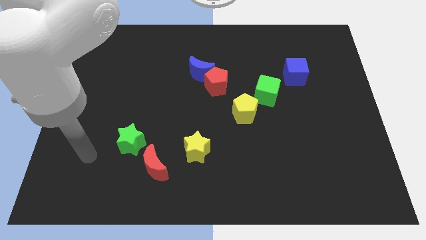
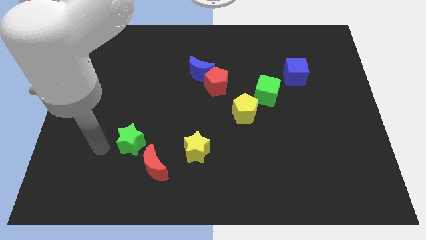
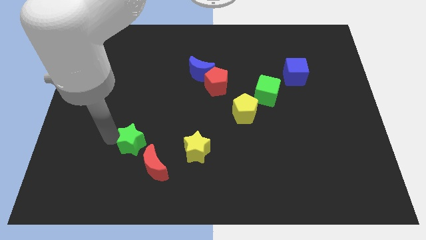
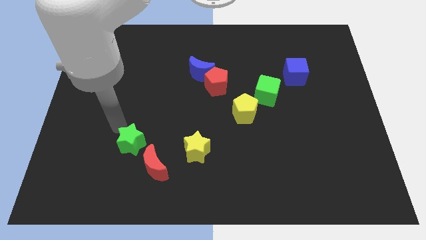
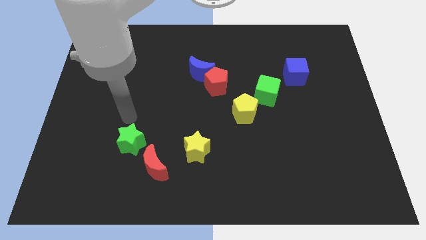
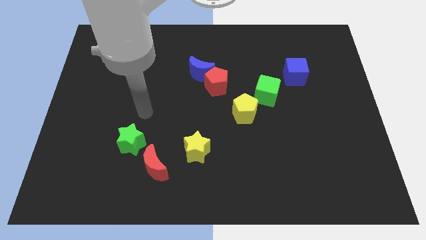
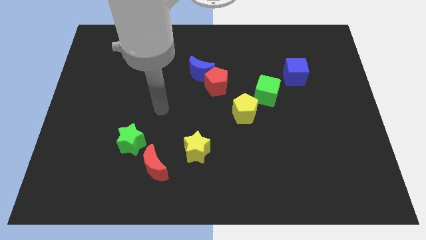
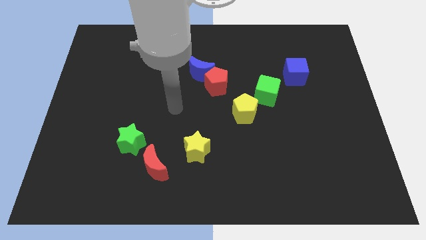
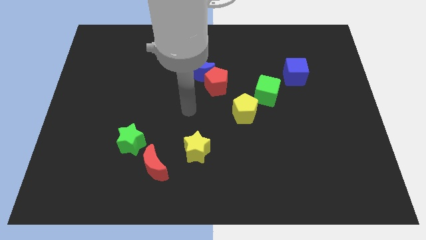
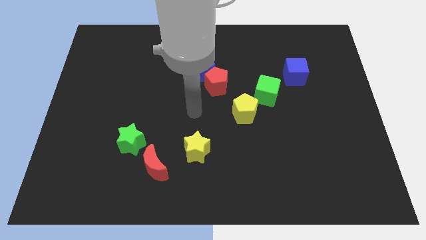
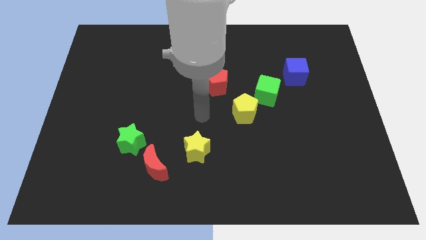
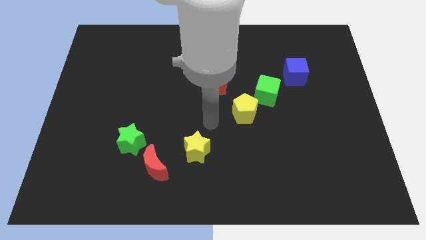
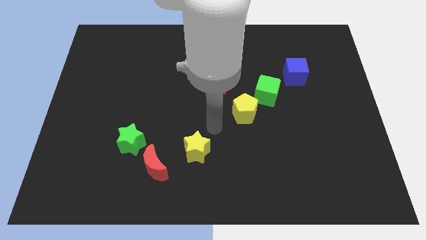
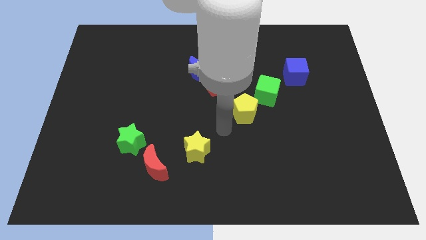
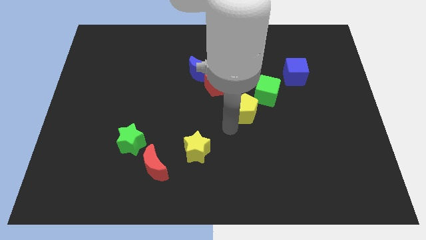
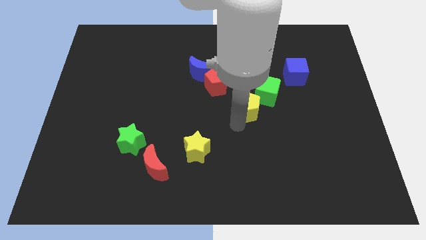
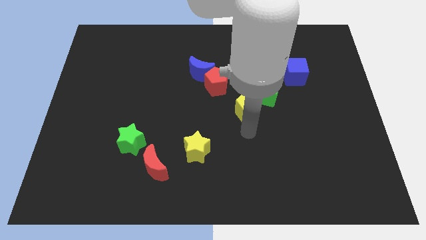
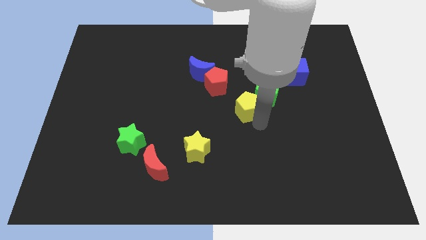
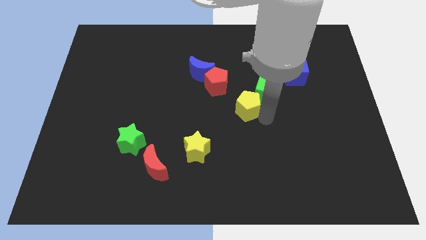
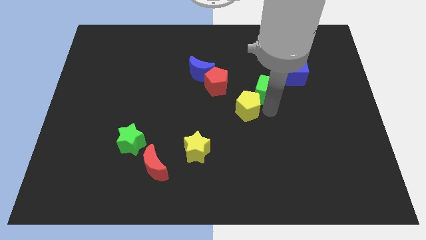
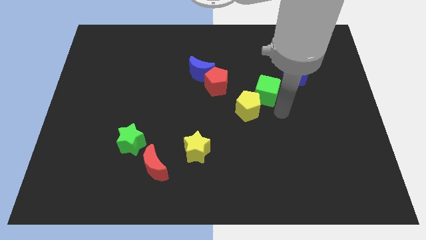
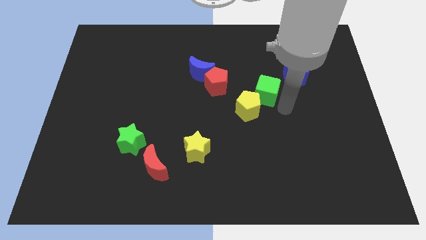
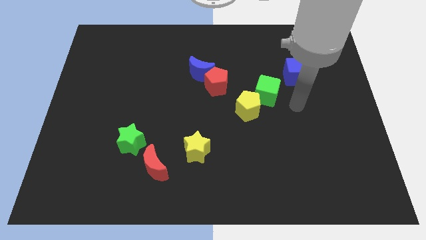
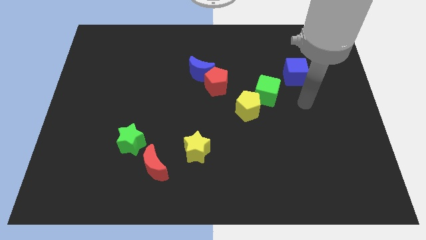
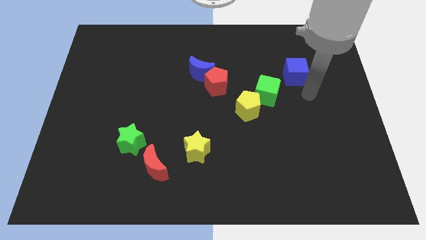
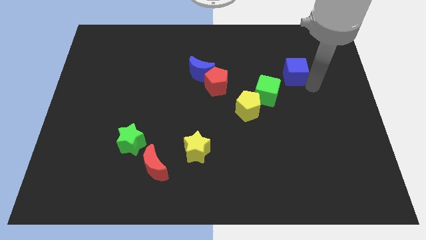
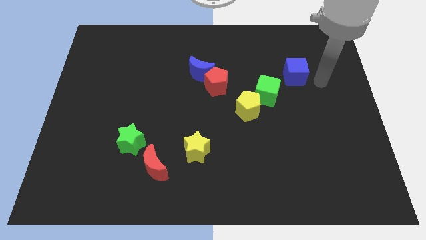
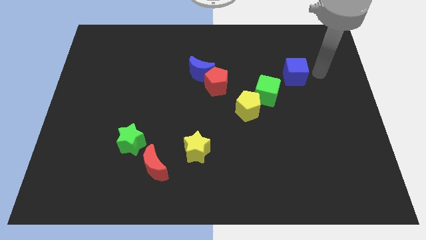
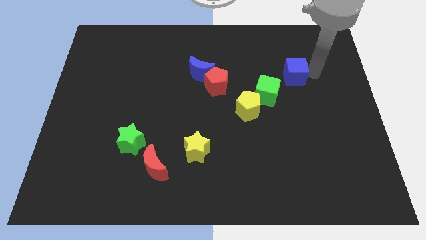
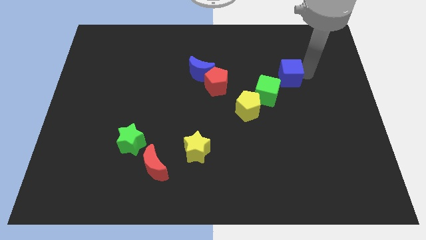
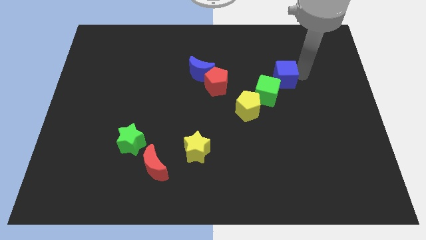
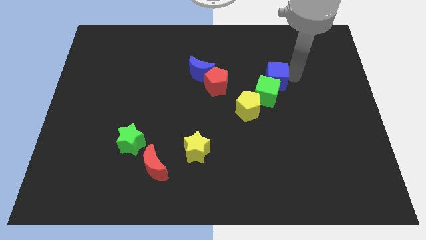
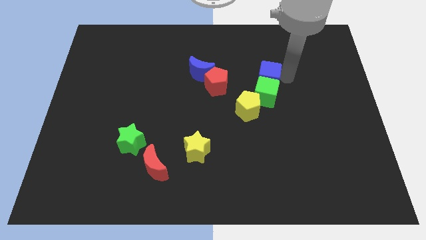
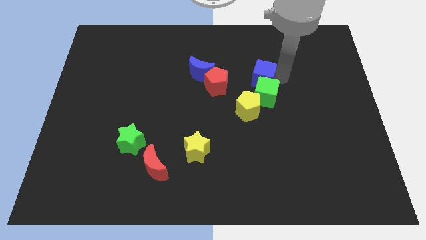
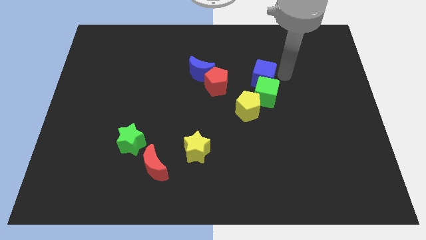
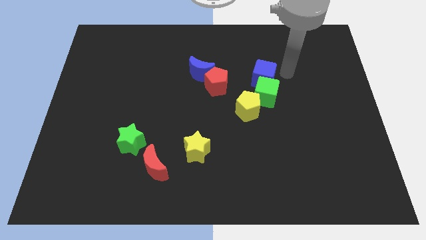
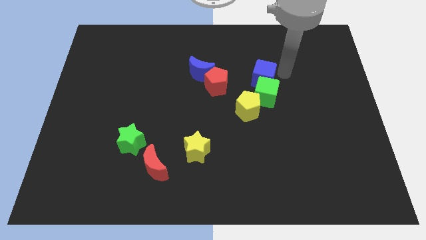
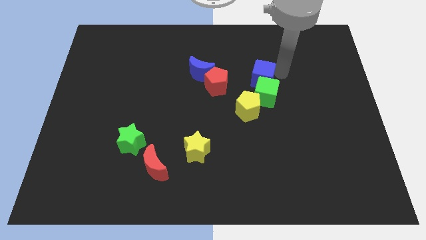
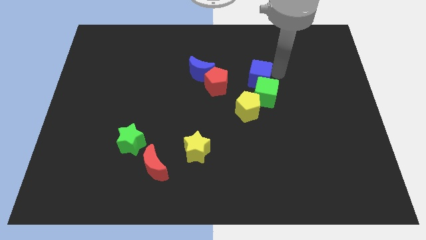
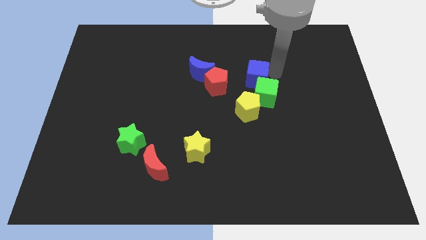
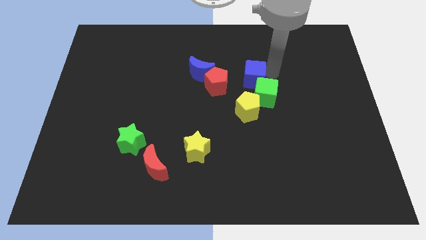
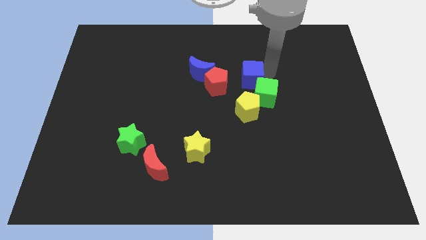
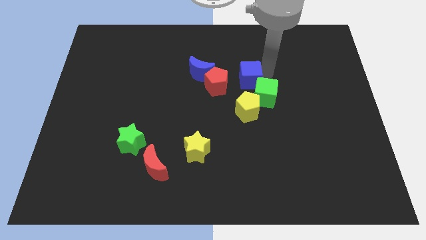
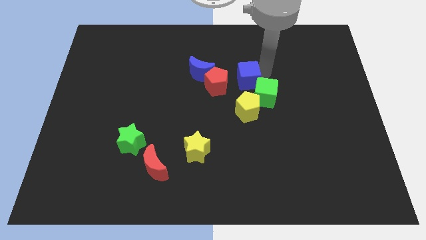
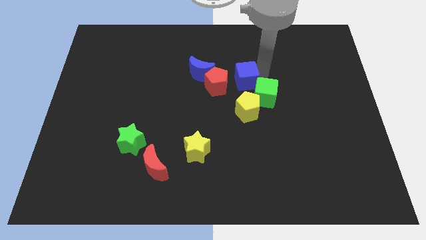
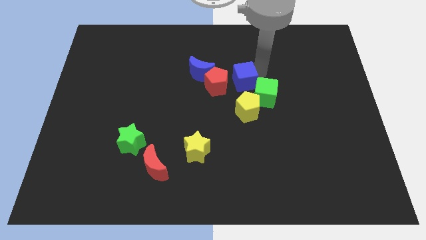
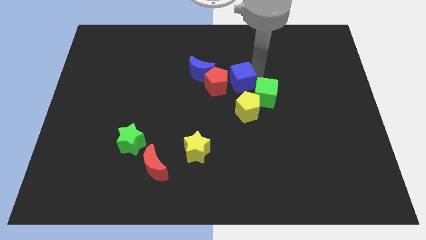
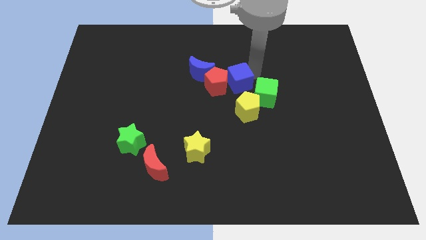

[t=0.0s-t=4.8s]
push the blue cube close to the red pentagon

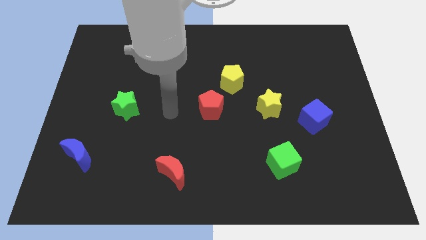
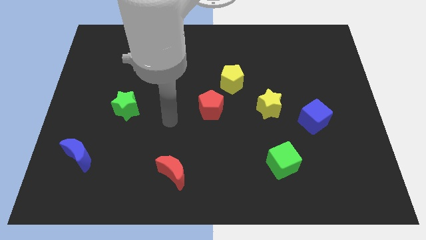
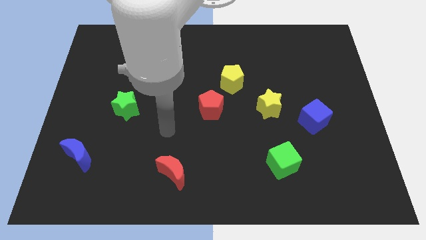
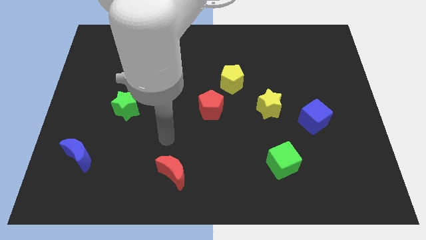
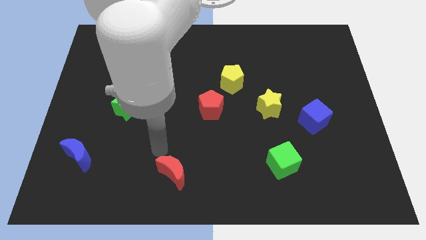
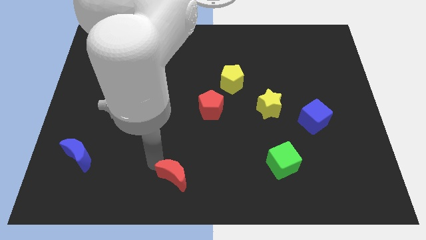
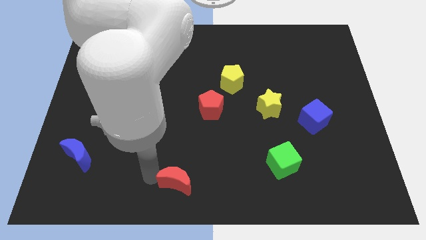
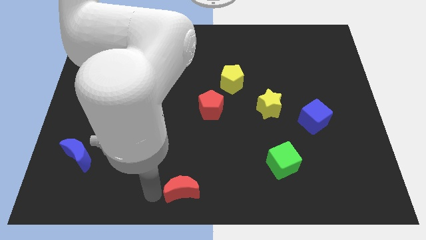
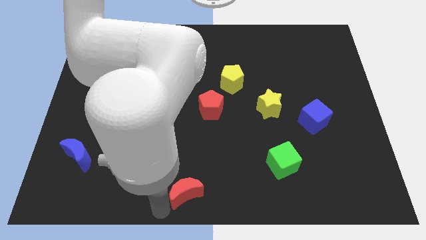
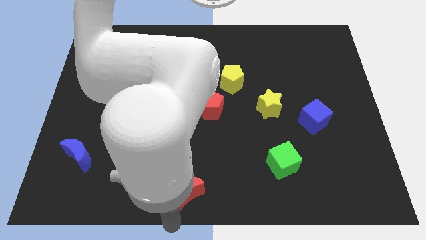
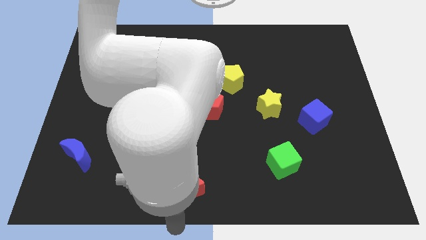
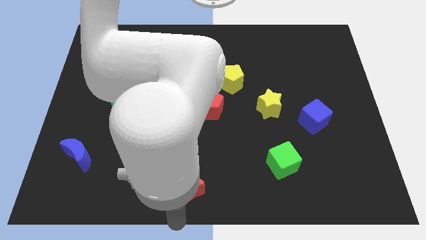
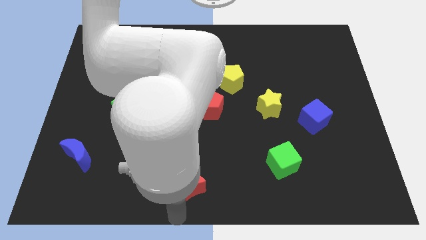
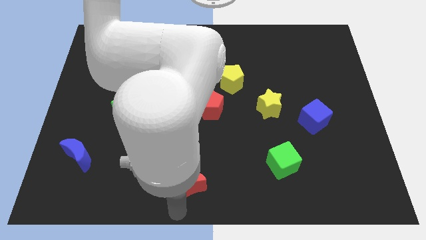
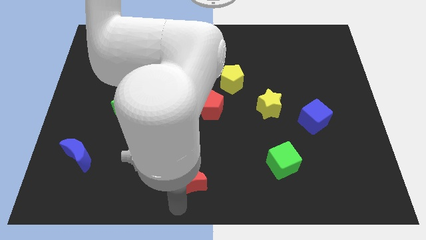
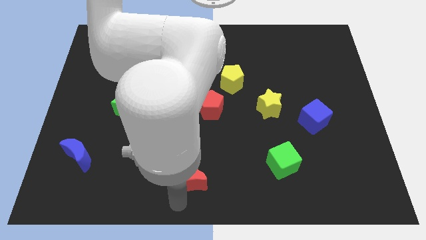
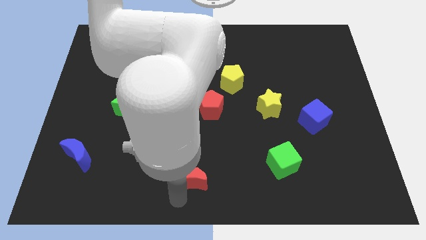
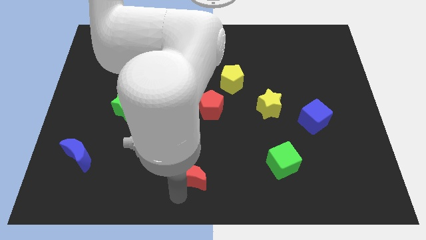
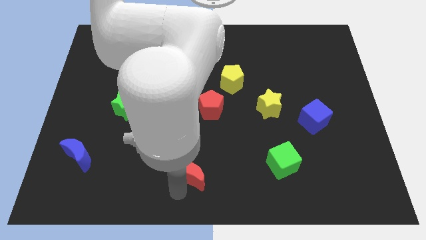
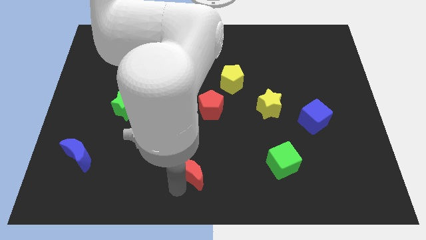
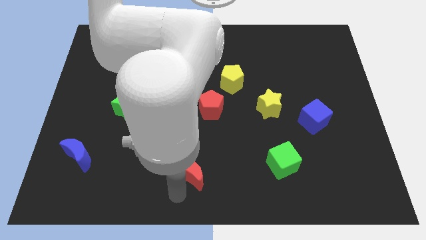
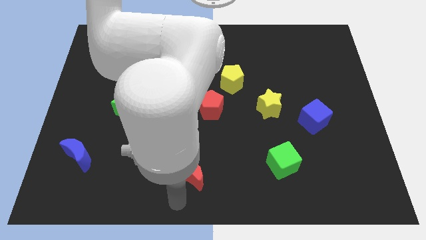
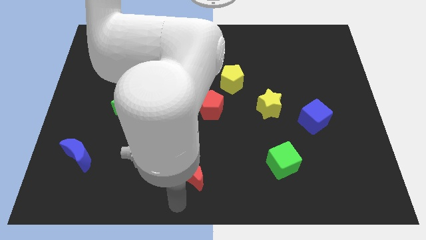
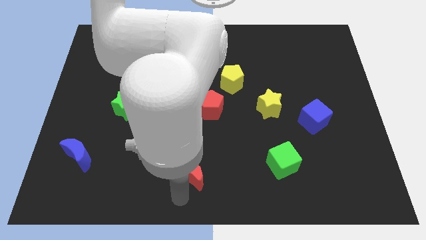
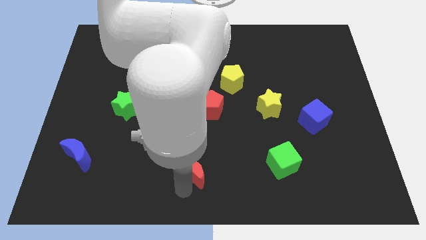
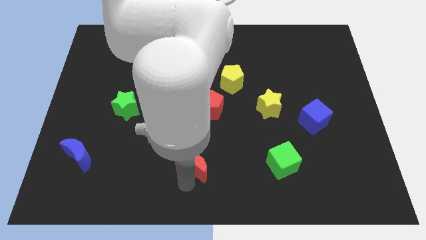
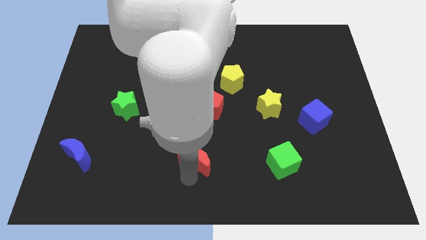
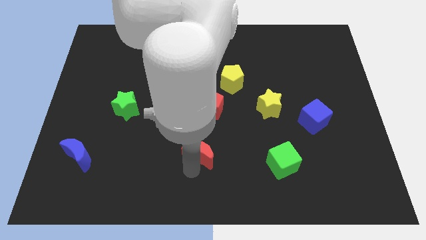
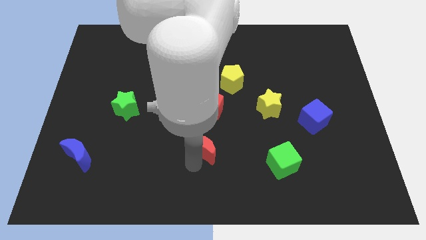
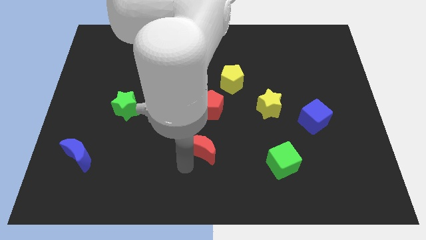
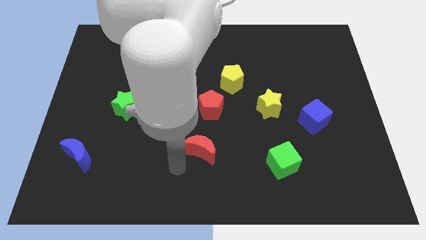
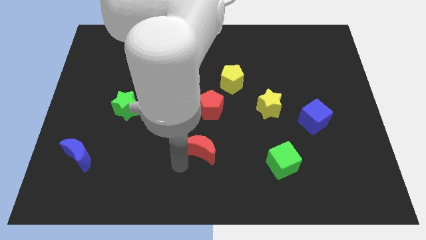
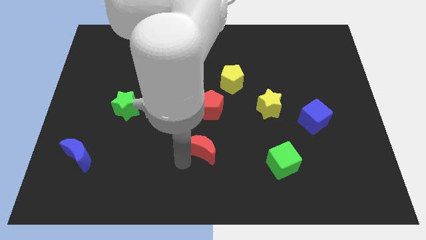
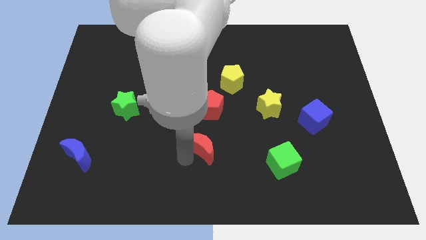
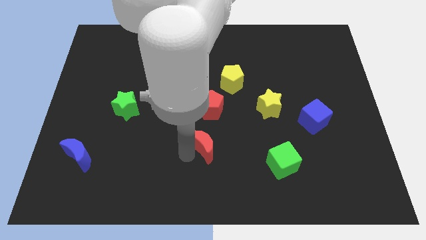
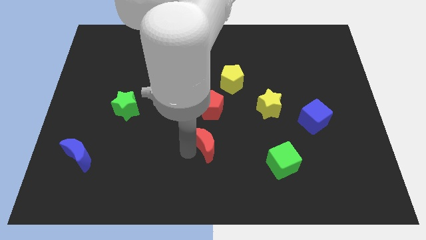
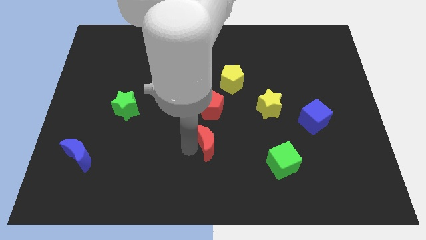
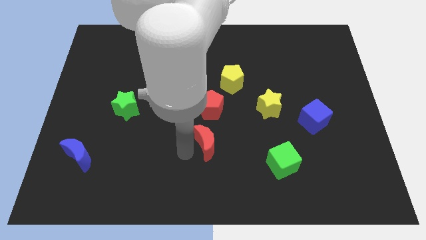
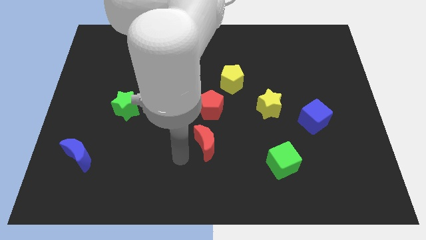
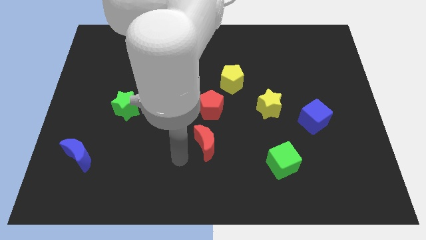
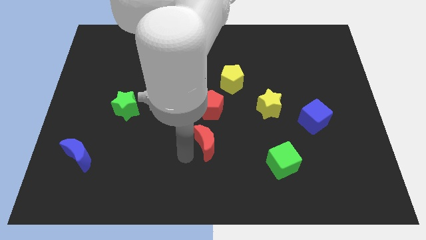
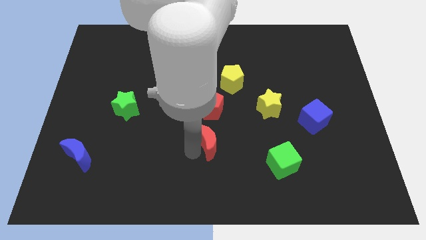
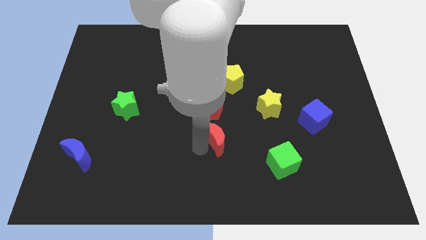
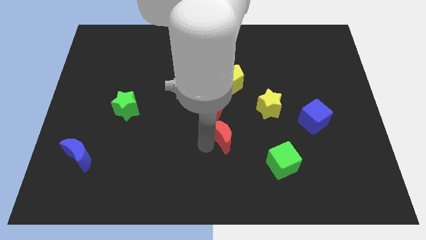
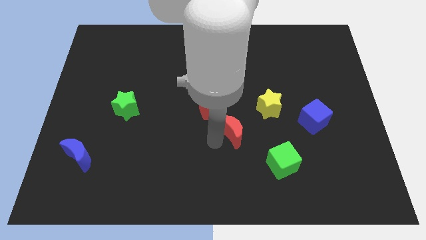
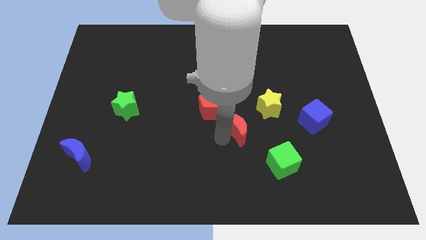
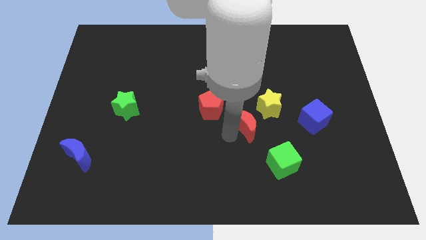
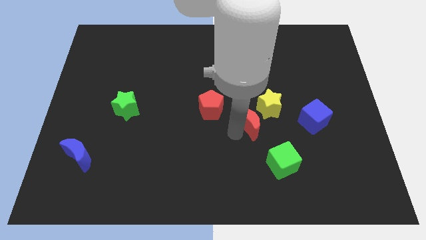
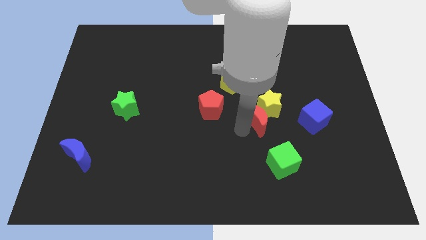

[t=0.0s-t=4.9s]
put the red moon close to the yellow star
